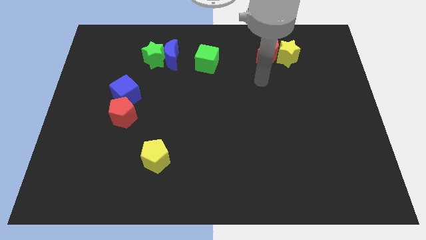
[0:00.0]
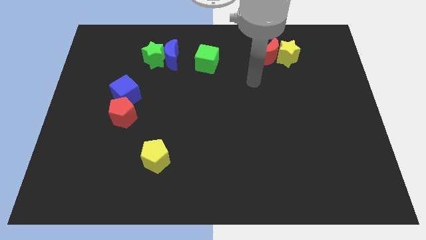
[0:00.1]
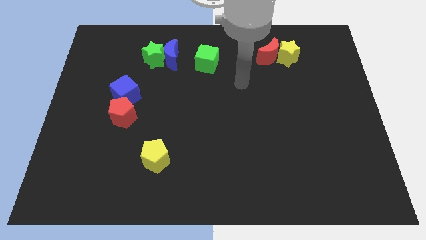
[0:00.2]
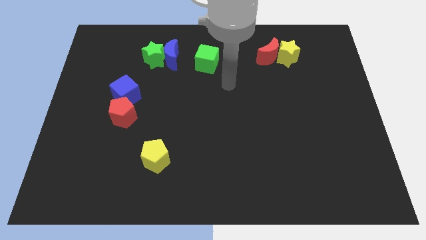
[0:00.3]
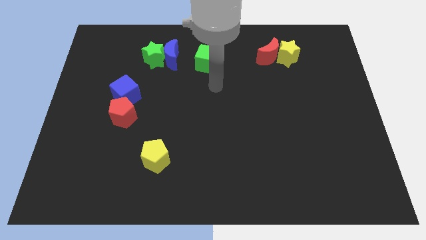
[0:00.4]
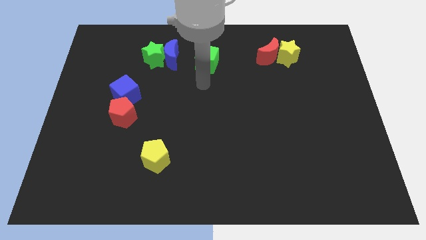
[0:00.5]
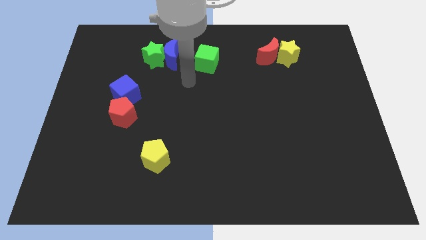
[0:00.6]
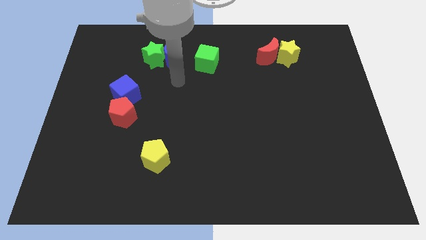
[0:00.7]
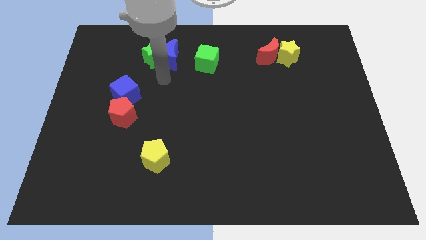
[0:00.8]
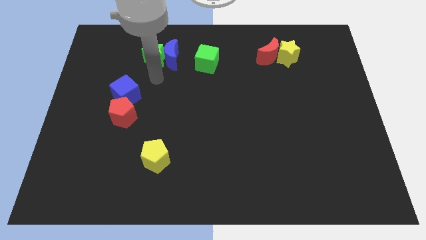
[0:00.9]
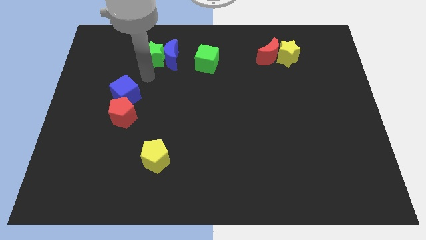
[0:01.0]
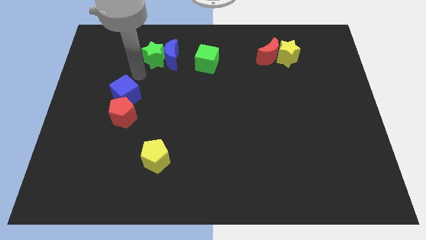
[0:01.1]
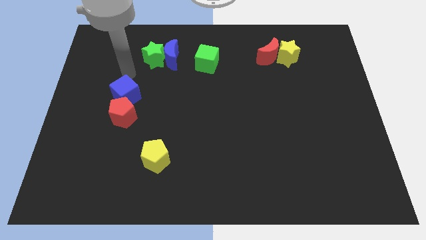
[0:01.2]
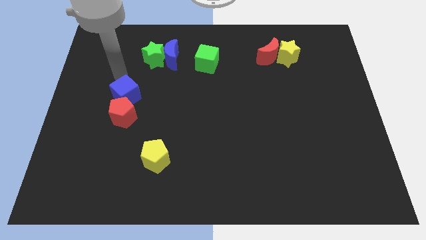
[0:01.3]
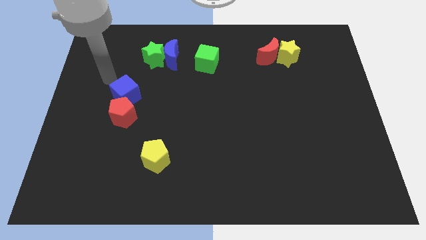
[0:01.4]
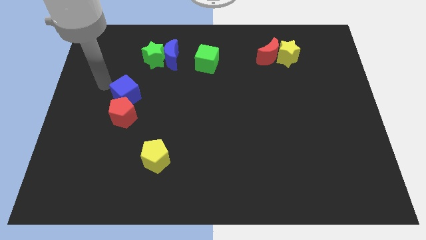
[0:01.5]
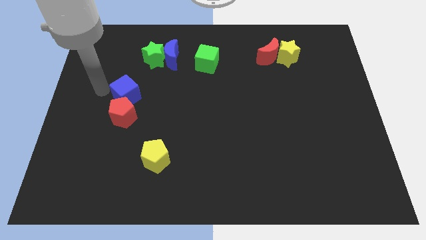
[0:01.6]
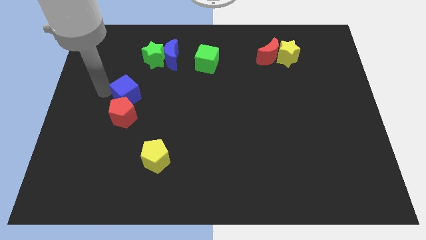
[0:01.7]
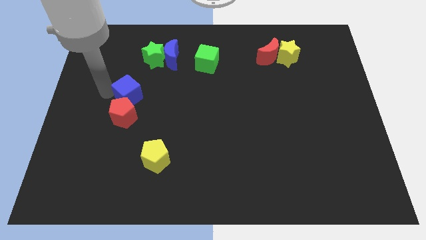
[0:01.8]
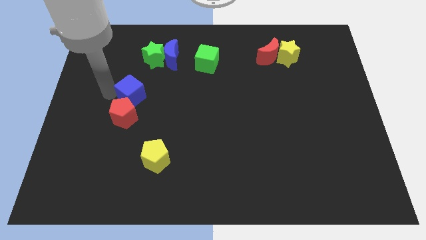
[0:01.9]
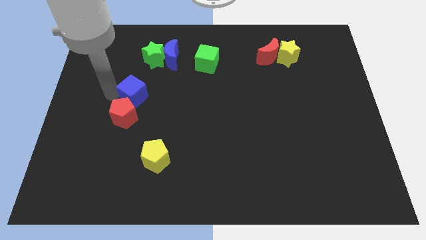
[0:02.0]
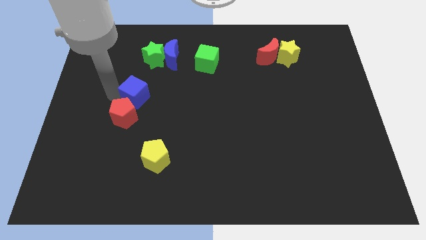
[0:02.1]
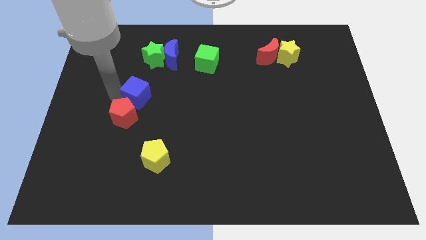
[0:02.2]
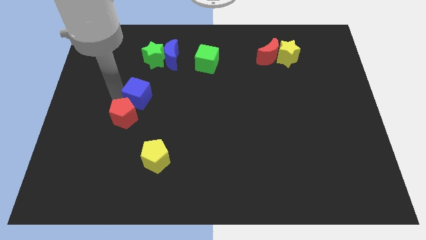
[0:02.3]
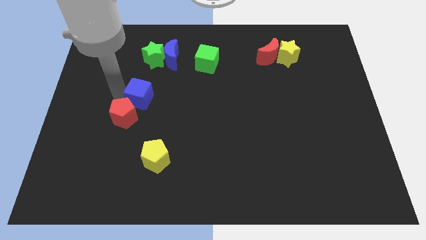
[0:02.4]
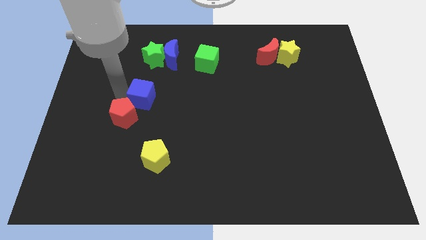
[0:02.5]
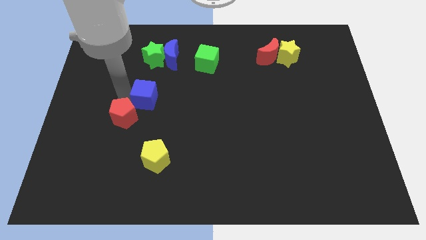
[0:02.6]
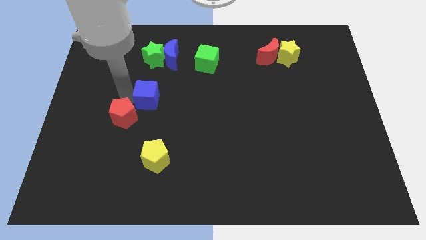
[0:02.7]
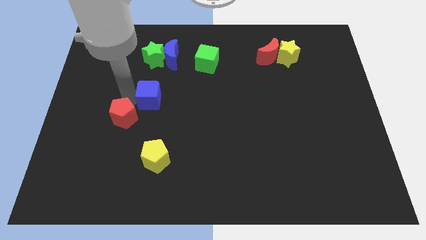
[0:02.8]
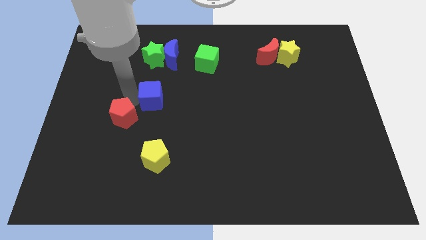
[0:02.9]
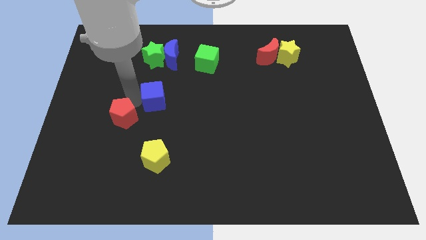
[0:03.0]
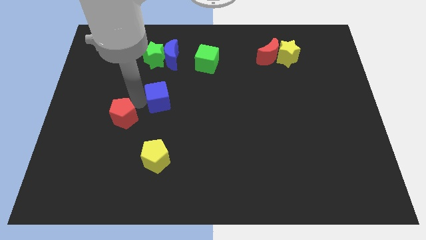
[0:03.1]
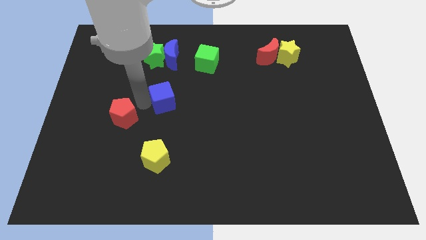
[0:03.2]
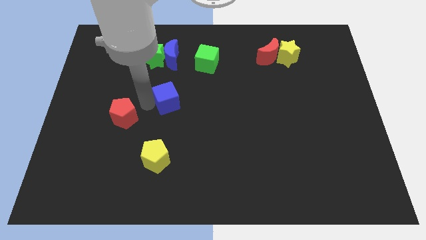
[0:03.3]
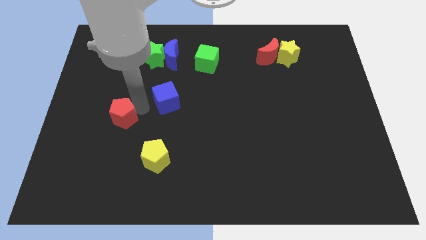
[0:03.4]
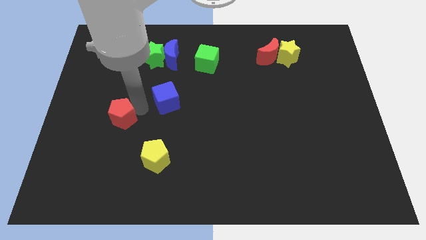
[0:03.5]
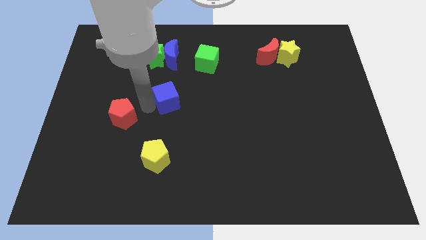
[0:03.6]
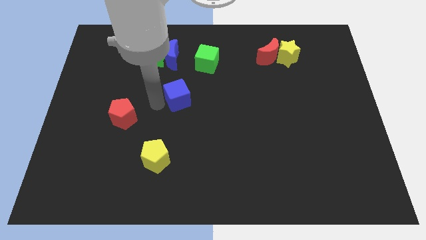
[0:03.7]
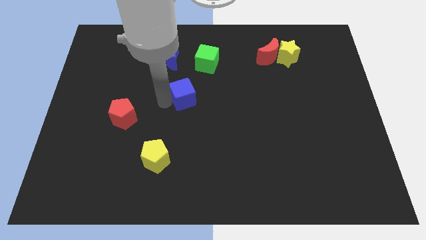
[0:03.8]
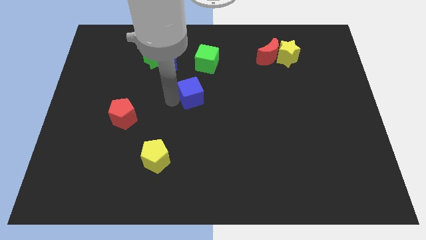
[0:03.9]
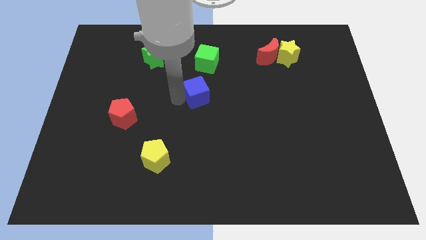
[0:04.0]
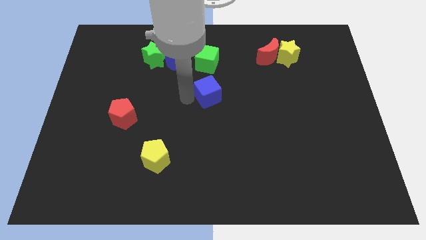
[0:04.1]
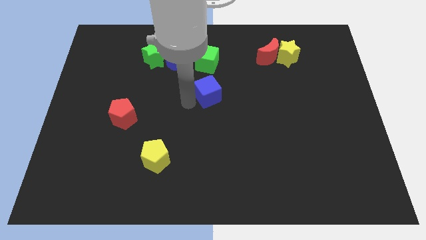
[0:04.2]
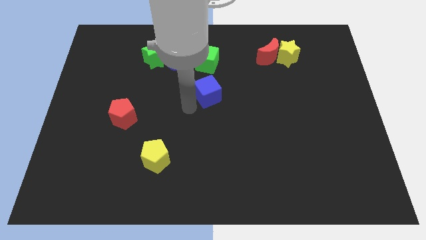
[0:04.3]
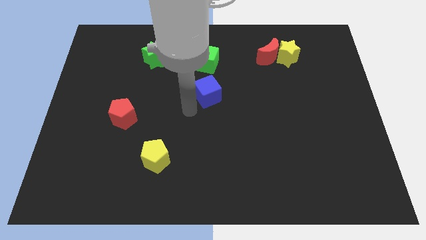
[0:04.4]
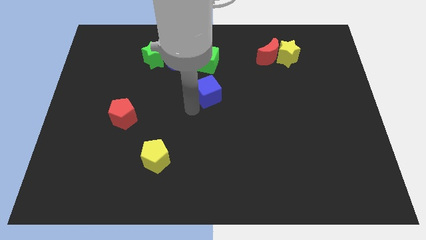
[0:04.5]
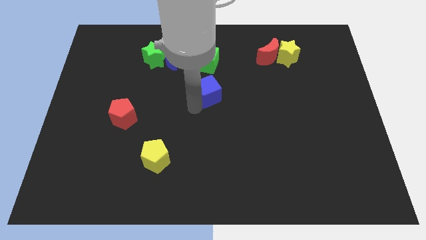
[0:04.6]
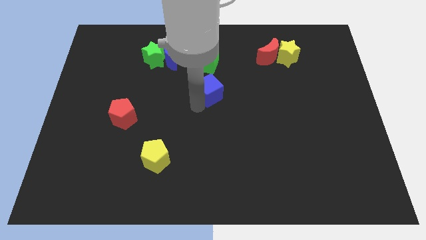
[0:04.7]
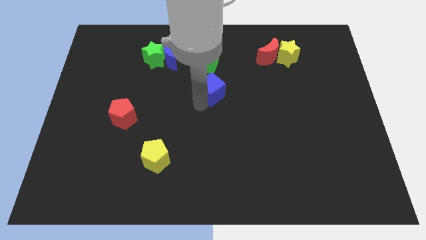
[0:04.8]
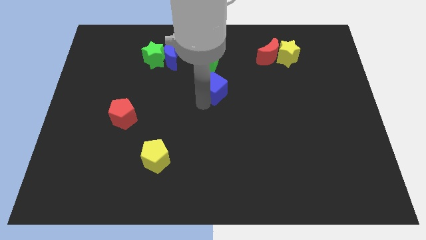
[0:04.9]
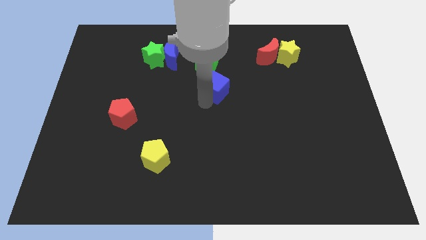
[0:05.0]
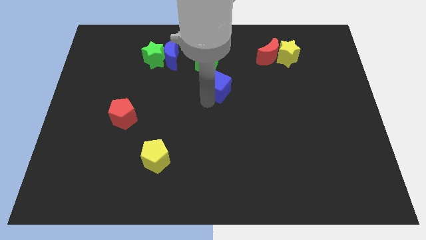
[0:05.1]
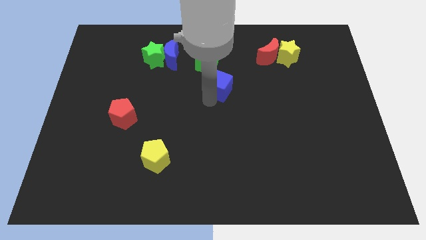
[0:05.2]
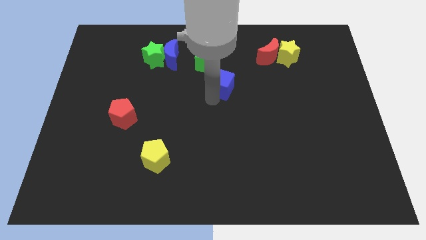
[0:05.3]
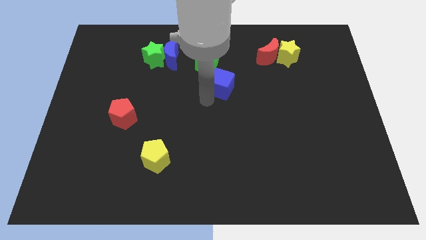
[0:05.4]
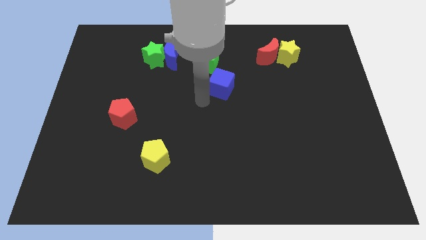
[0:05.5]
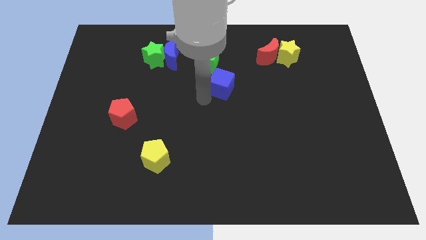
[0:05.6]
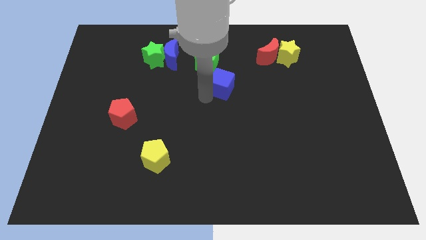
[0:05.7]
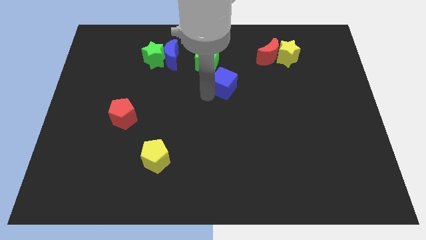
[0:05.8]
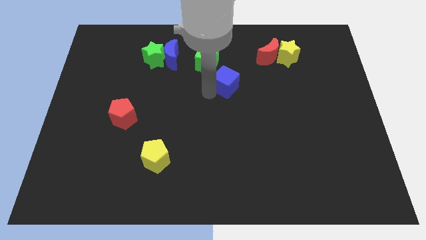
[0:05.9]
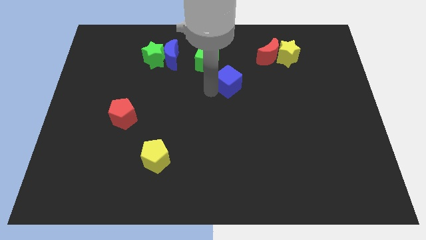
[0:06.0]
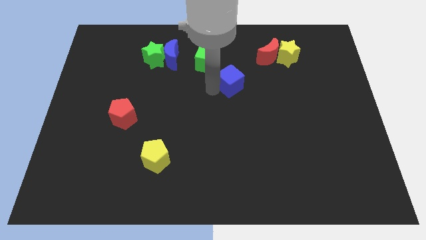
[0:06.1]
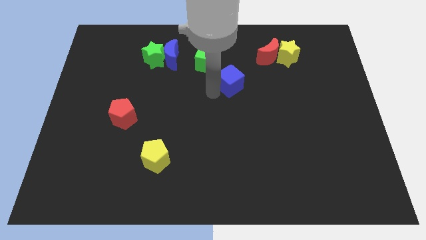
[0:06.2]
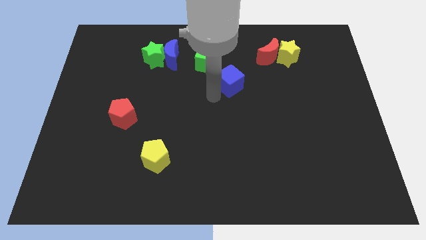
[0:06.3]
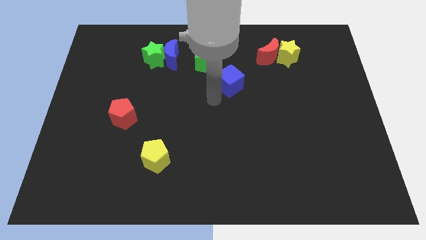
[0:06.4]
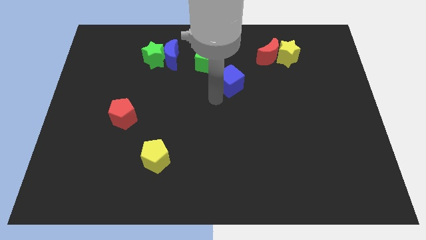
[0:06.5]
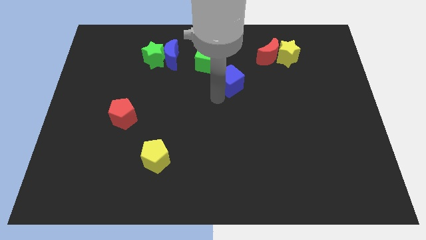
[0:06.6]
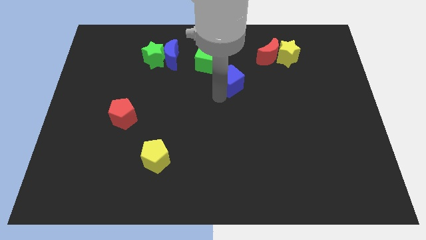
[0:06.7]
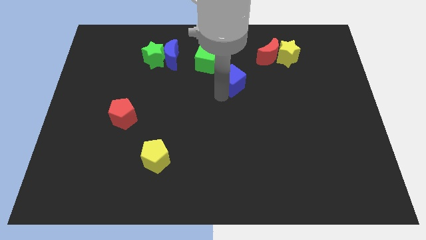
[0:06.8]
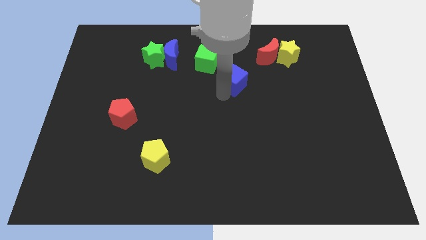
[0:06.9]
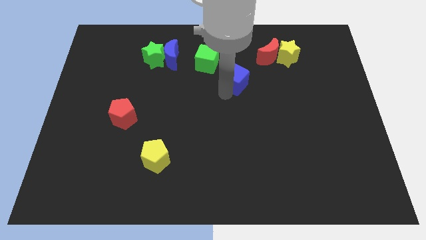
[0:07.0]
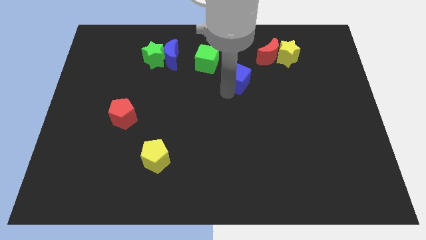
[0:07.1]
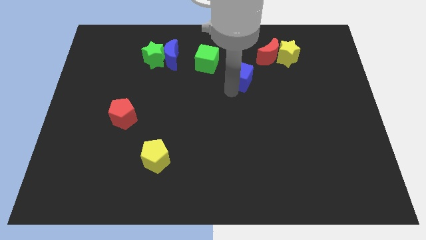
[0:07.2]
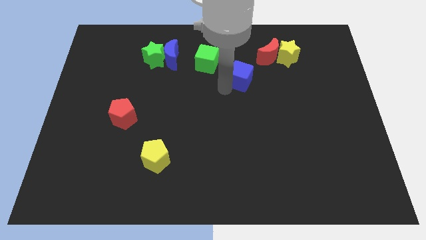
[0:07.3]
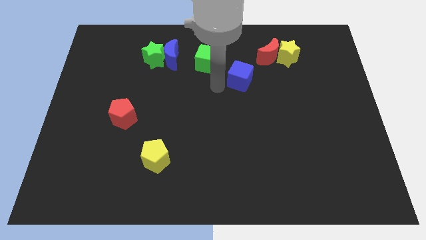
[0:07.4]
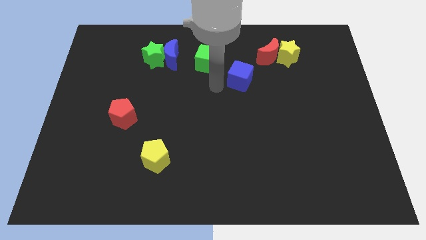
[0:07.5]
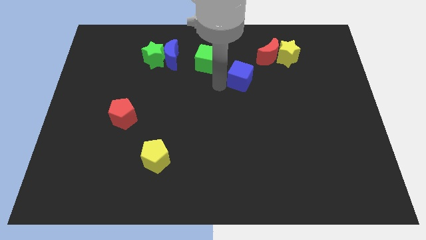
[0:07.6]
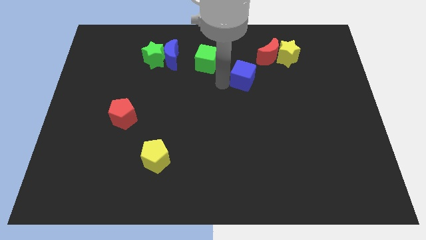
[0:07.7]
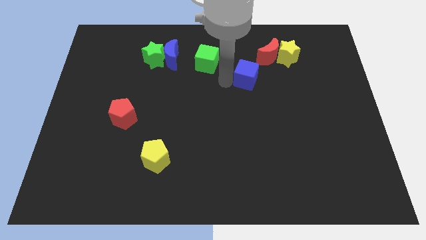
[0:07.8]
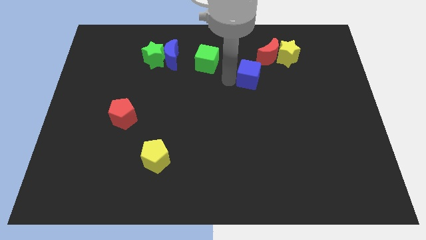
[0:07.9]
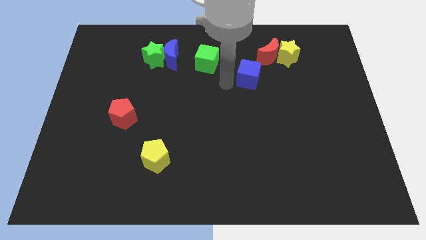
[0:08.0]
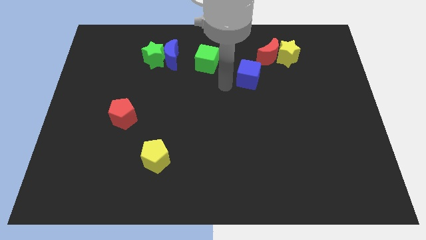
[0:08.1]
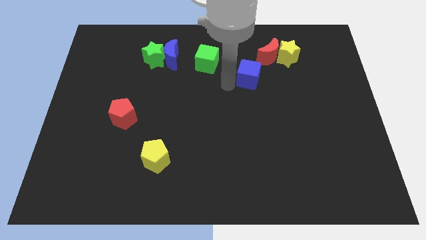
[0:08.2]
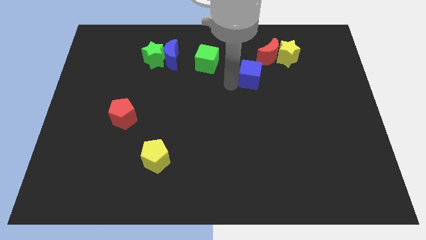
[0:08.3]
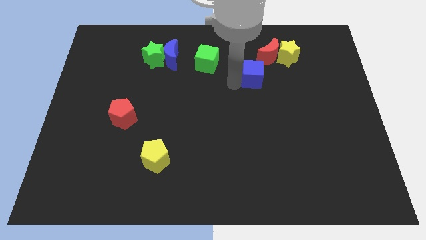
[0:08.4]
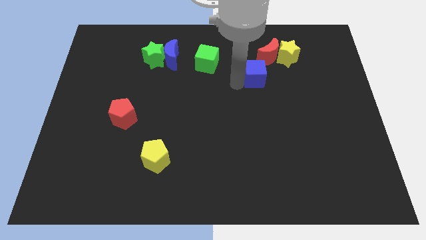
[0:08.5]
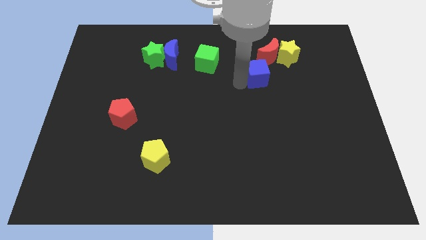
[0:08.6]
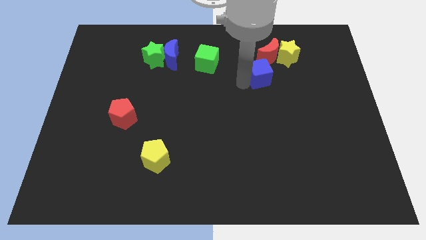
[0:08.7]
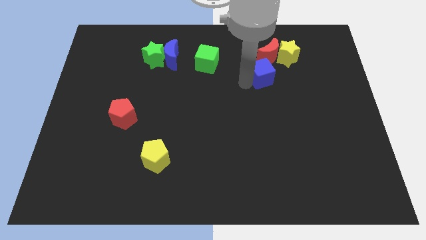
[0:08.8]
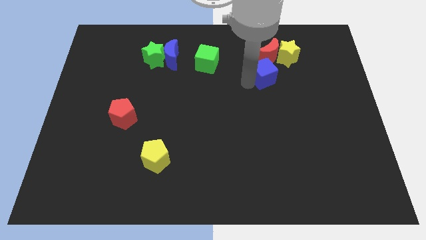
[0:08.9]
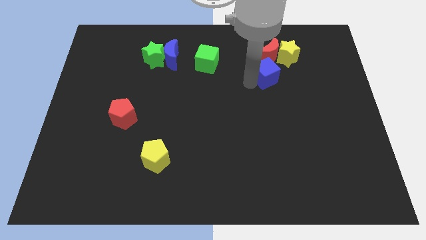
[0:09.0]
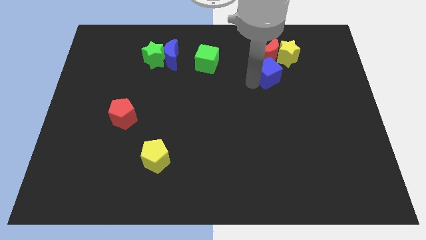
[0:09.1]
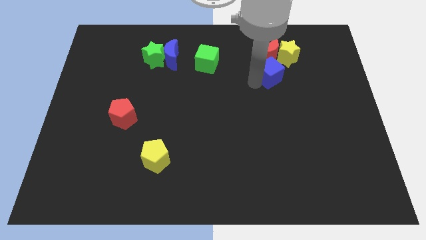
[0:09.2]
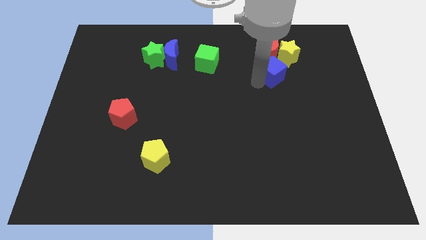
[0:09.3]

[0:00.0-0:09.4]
move the blue cube diagonally down and to the right of the red moon
